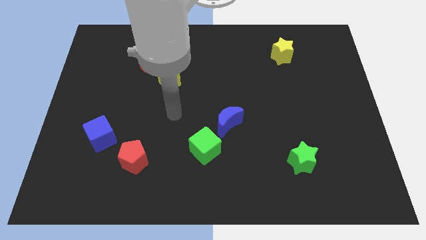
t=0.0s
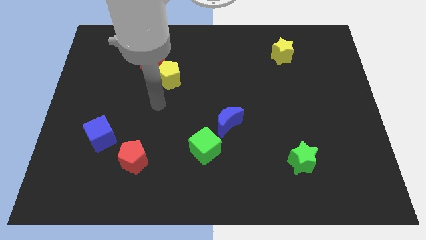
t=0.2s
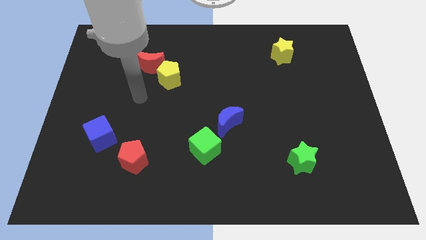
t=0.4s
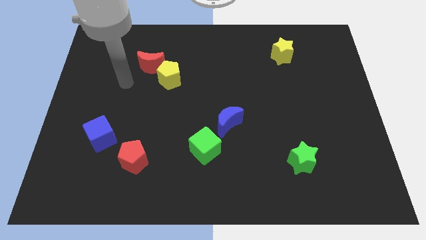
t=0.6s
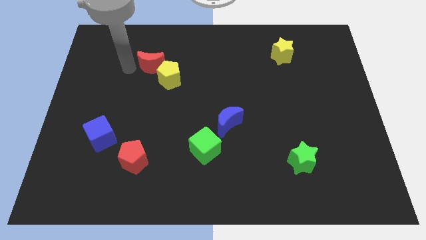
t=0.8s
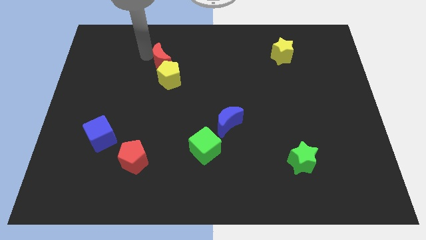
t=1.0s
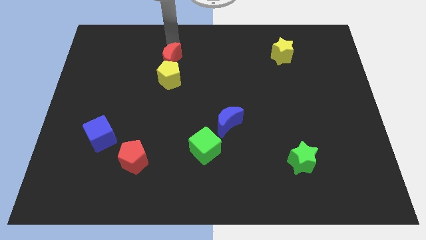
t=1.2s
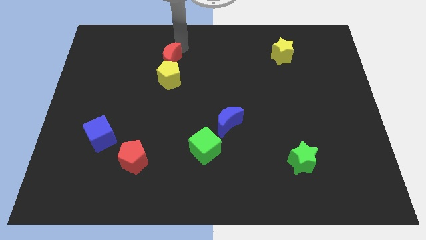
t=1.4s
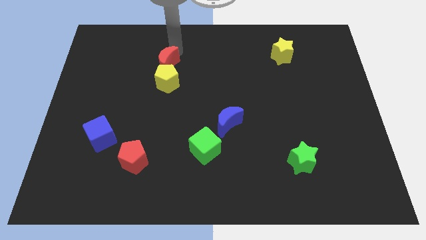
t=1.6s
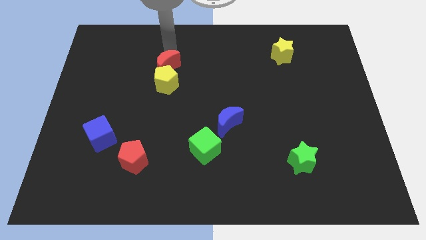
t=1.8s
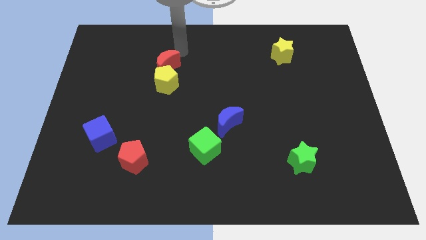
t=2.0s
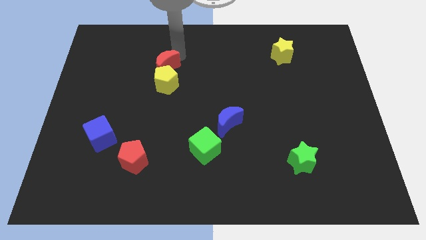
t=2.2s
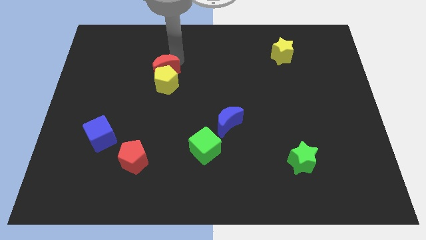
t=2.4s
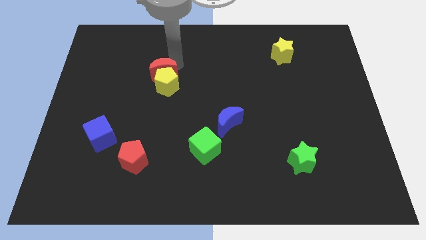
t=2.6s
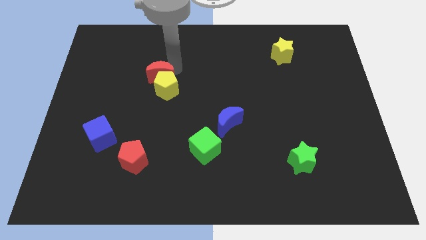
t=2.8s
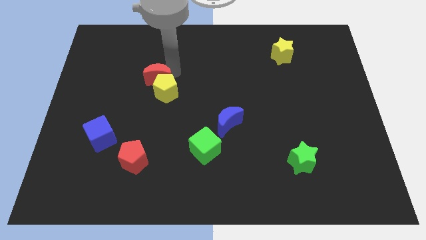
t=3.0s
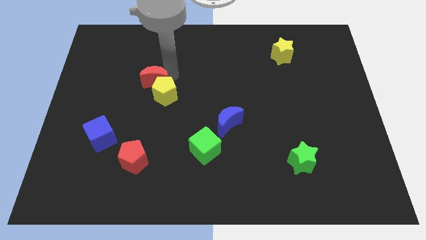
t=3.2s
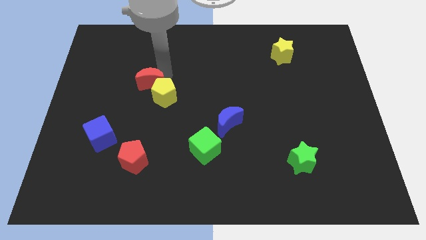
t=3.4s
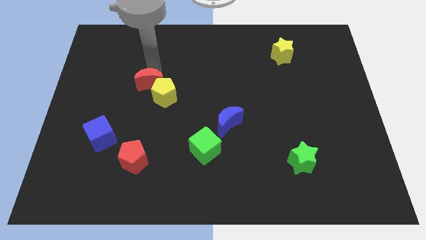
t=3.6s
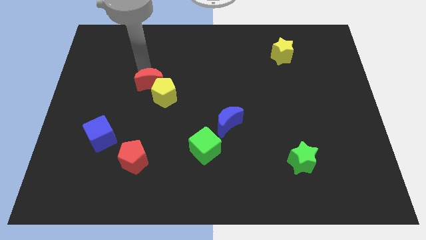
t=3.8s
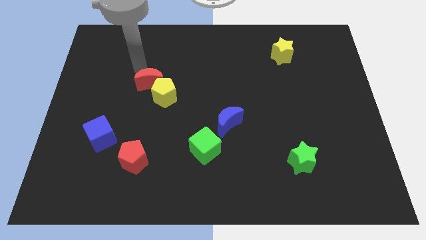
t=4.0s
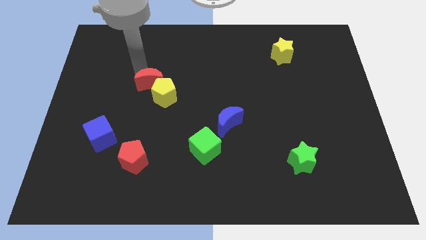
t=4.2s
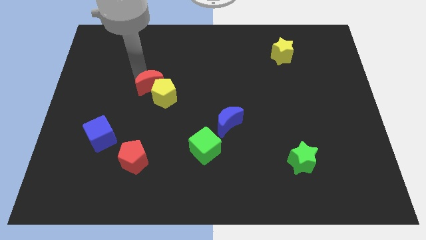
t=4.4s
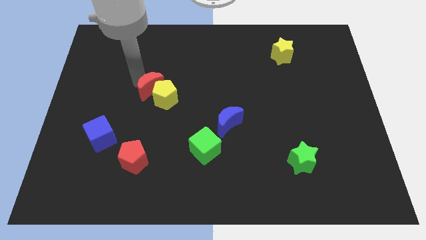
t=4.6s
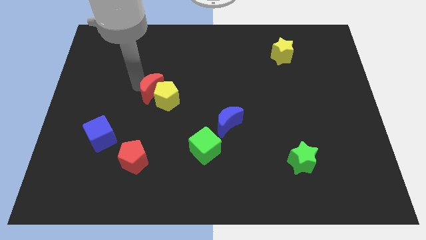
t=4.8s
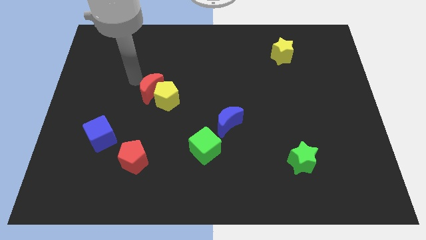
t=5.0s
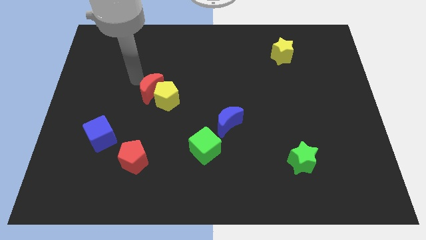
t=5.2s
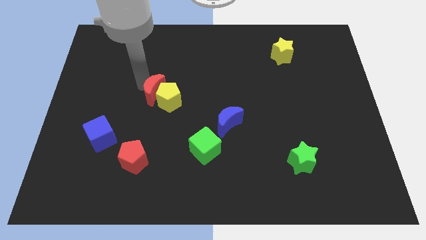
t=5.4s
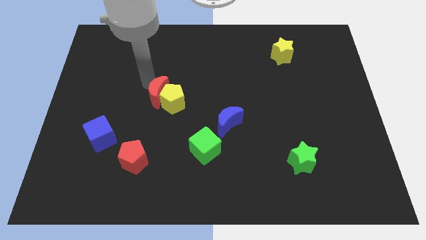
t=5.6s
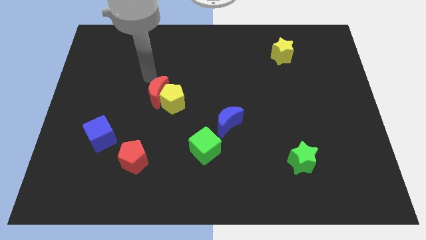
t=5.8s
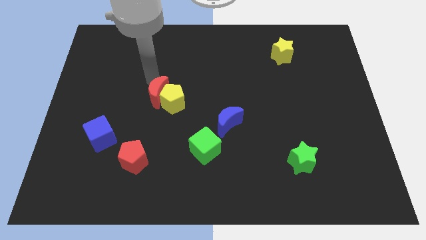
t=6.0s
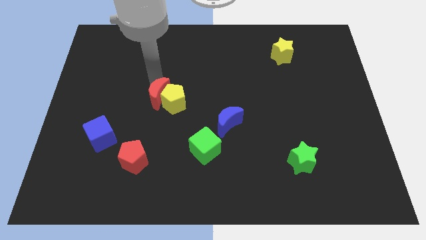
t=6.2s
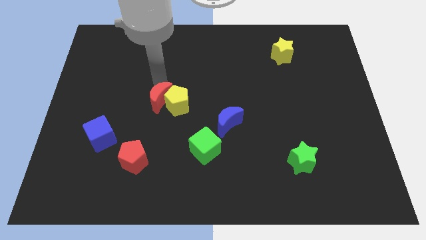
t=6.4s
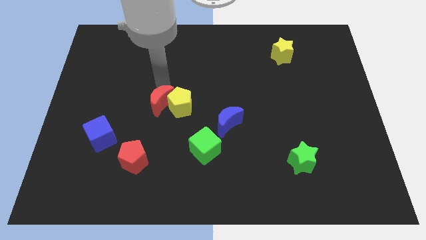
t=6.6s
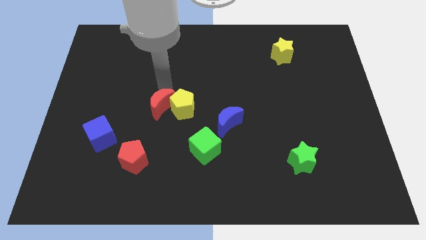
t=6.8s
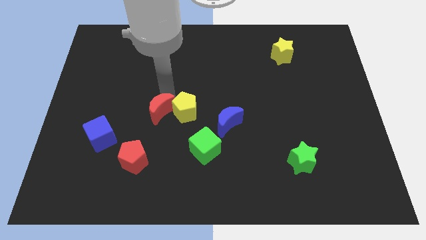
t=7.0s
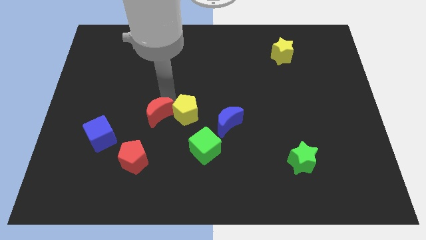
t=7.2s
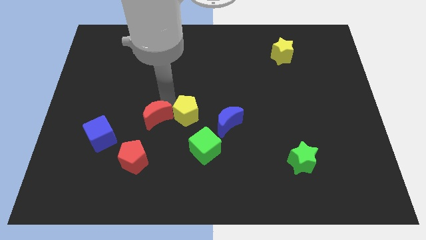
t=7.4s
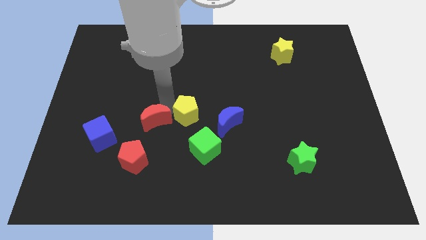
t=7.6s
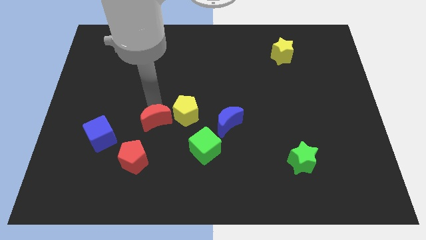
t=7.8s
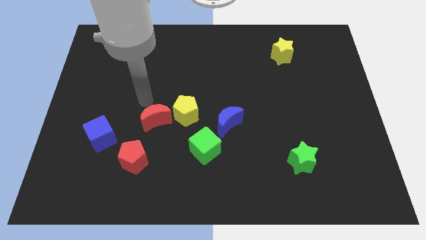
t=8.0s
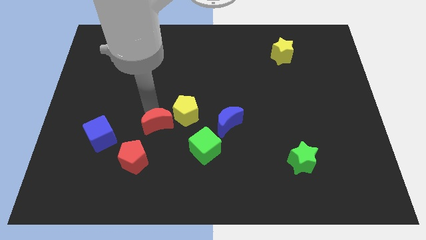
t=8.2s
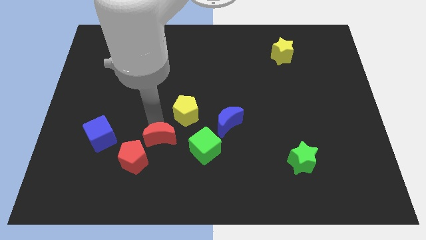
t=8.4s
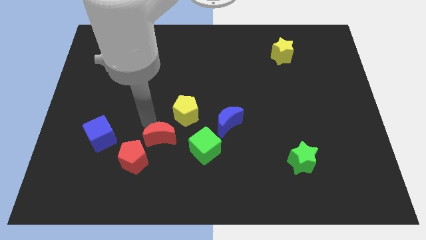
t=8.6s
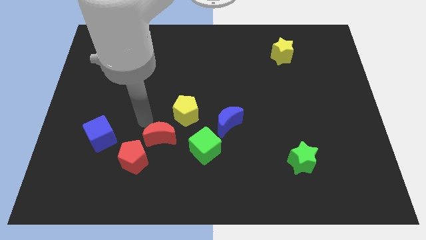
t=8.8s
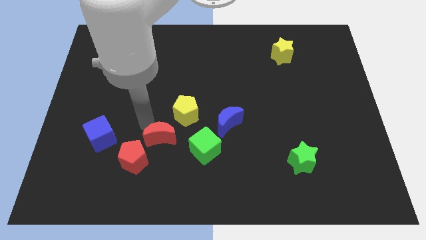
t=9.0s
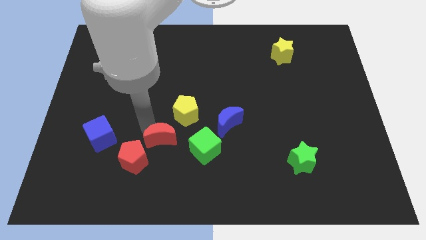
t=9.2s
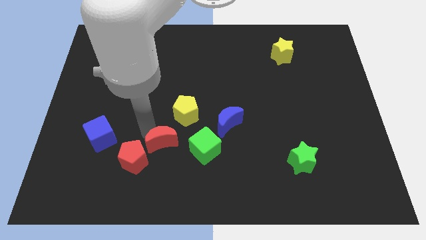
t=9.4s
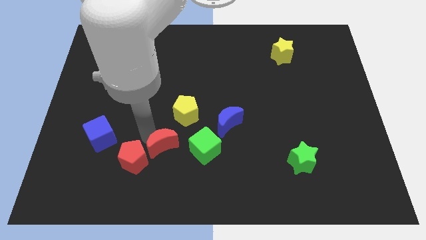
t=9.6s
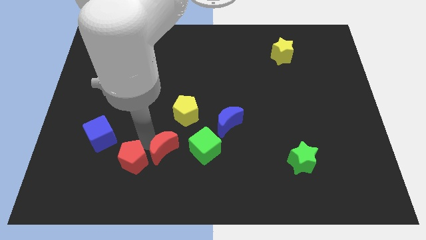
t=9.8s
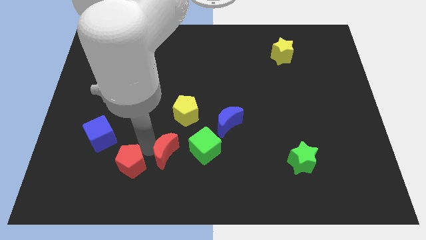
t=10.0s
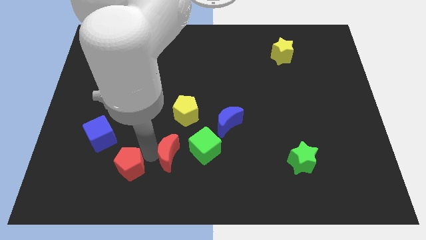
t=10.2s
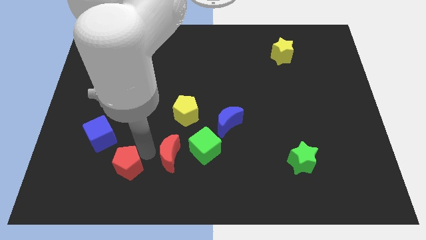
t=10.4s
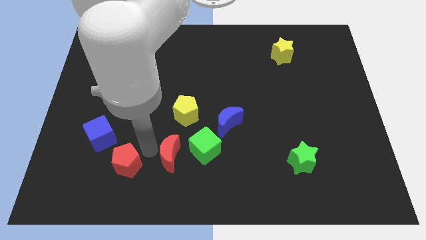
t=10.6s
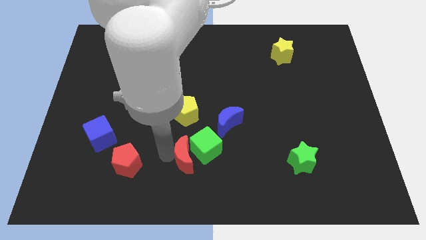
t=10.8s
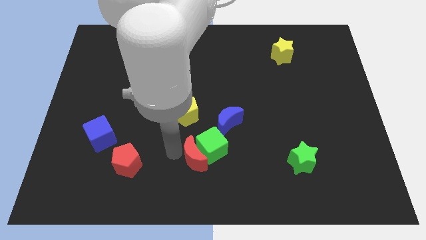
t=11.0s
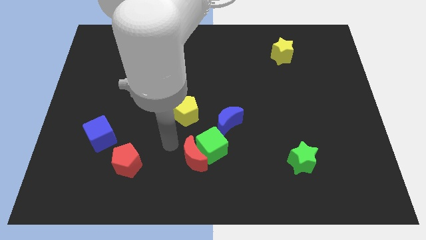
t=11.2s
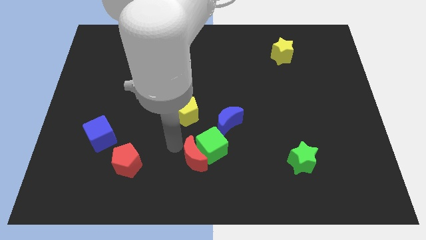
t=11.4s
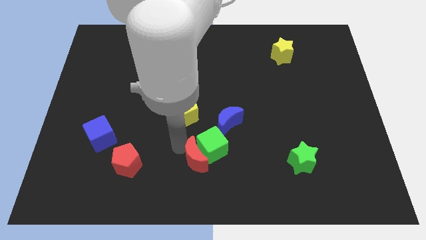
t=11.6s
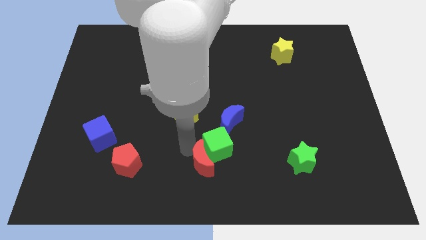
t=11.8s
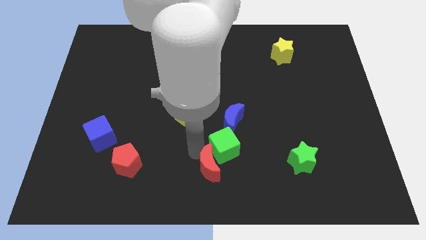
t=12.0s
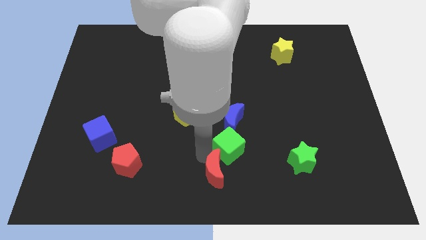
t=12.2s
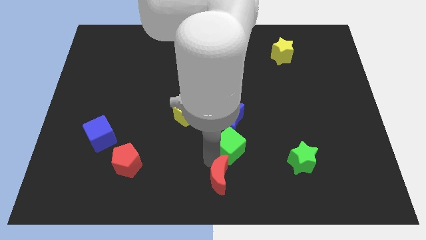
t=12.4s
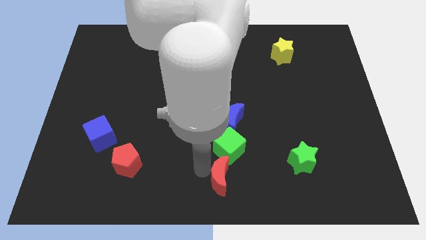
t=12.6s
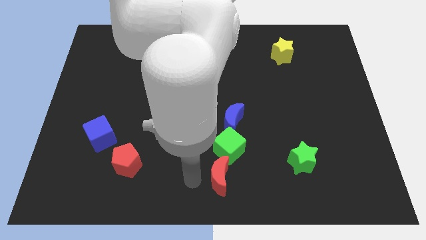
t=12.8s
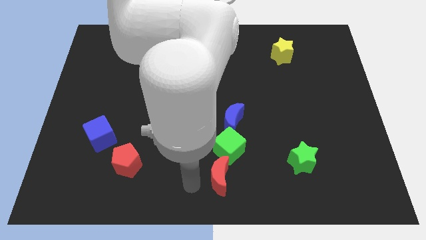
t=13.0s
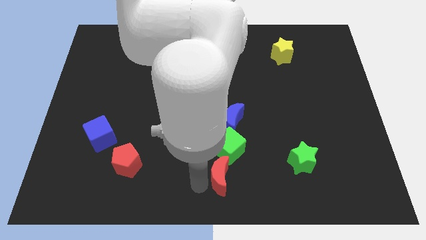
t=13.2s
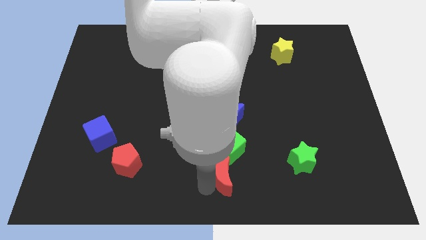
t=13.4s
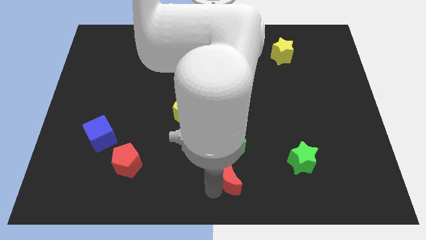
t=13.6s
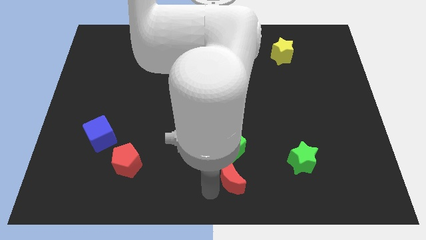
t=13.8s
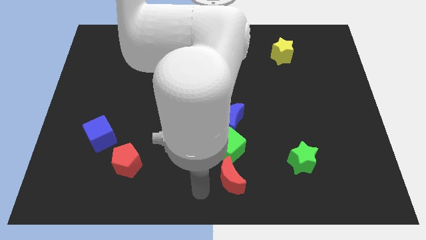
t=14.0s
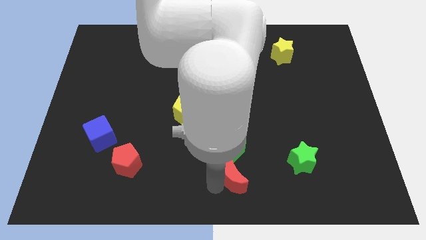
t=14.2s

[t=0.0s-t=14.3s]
put the red moon to the bottom right of the green cube
